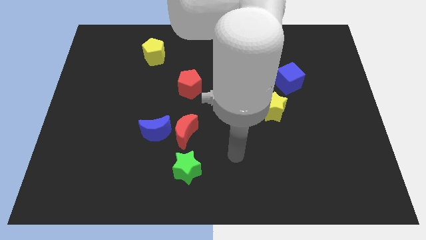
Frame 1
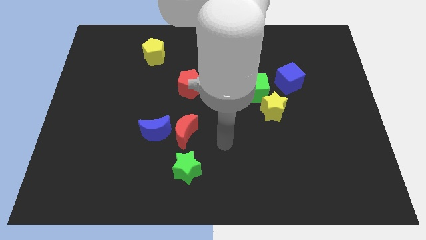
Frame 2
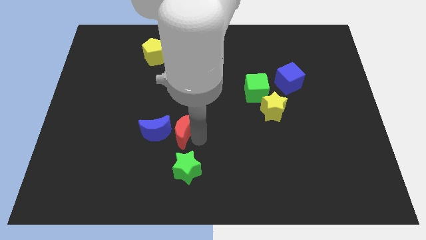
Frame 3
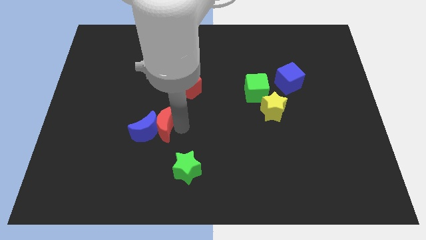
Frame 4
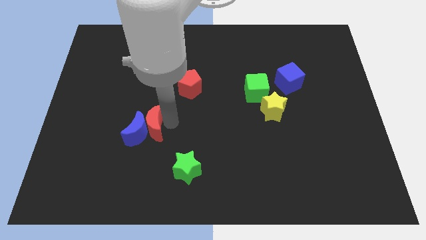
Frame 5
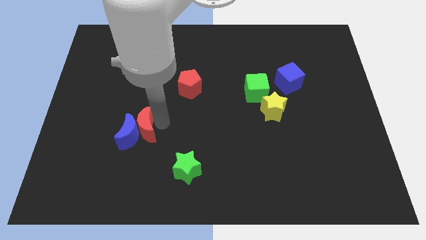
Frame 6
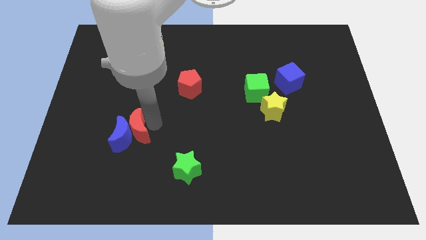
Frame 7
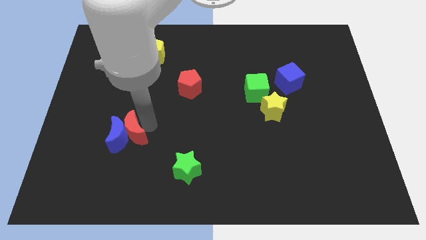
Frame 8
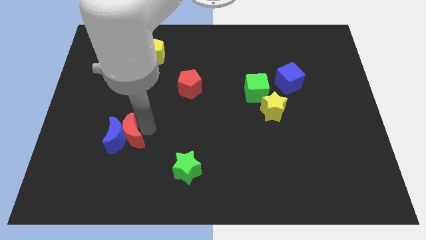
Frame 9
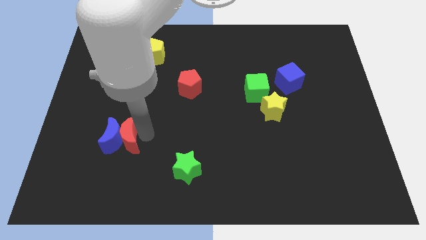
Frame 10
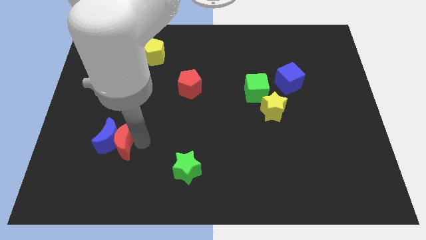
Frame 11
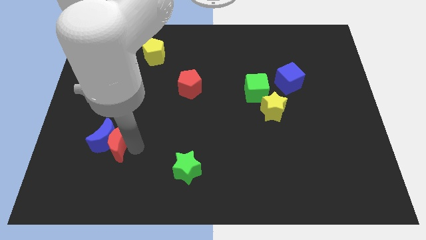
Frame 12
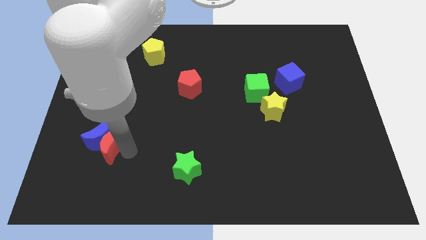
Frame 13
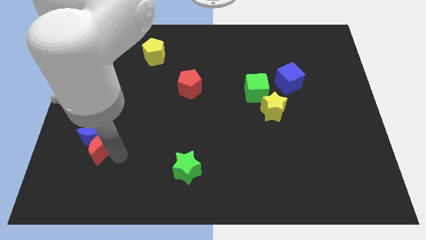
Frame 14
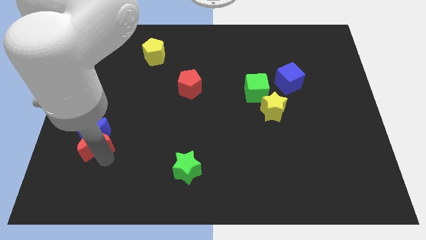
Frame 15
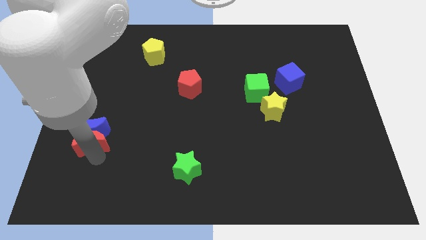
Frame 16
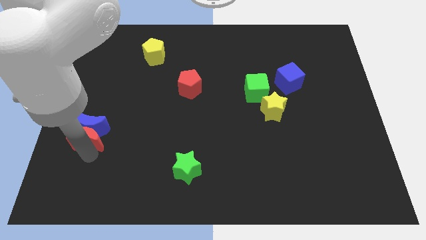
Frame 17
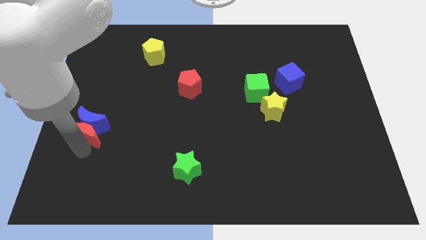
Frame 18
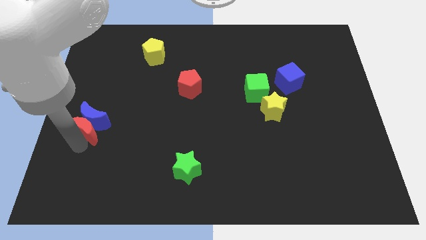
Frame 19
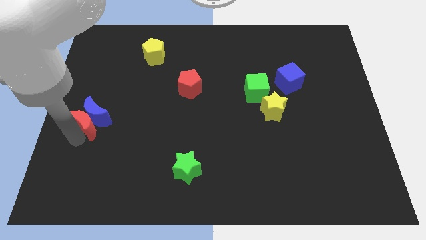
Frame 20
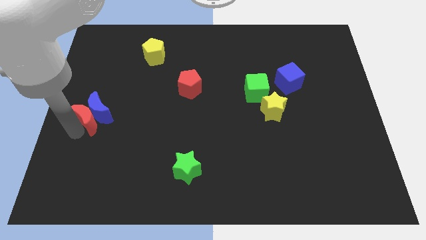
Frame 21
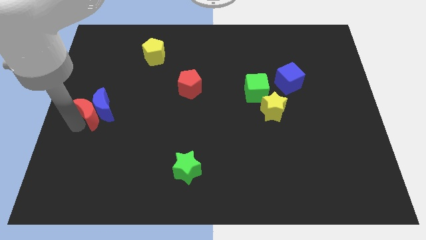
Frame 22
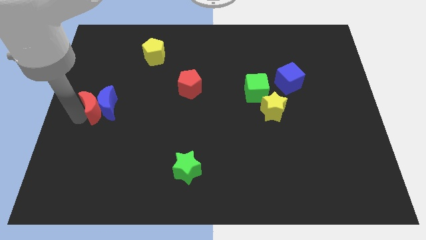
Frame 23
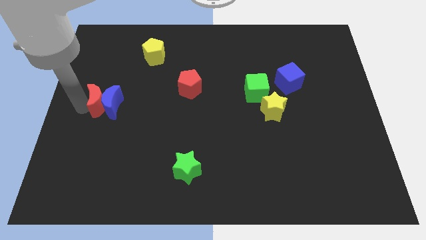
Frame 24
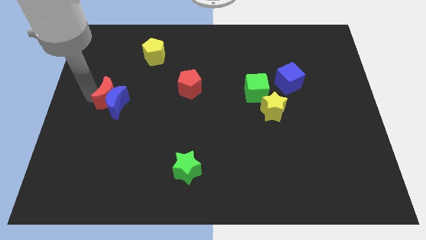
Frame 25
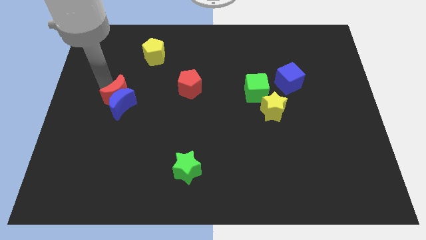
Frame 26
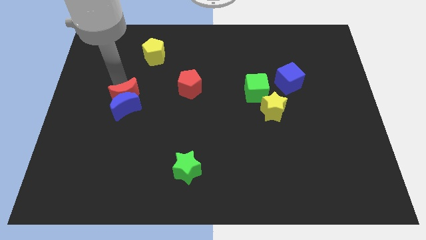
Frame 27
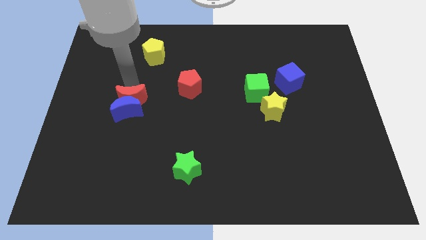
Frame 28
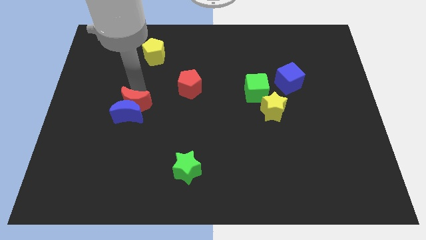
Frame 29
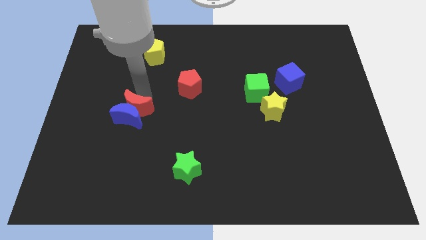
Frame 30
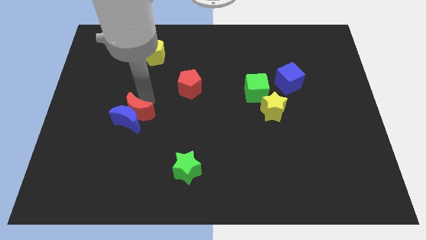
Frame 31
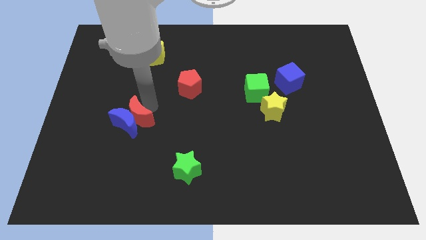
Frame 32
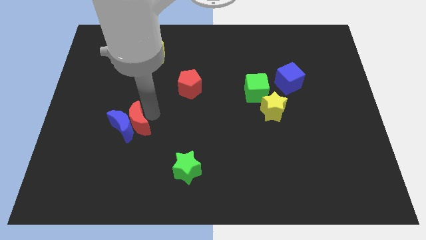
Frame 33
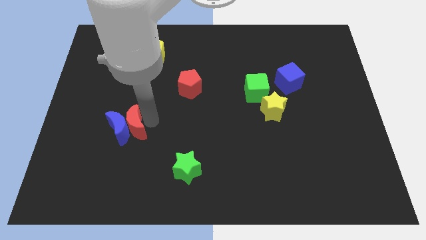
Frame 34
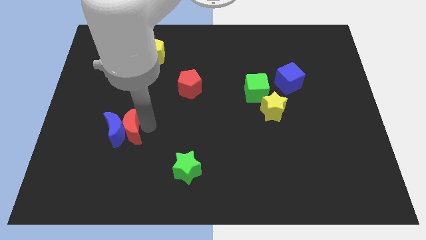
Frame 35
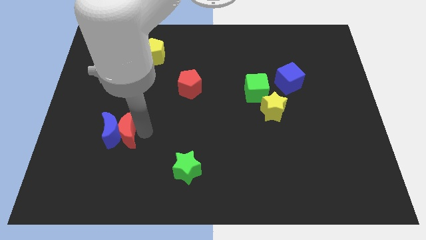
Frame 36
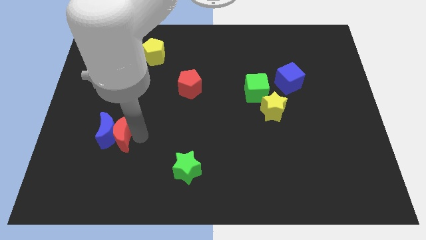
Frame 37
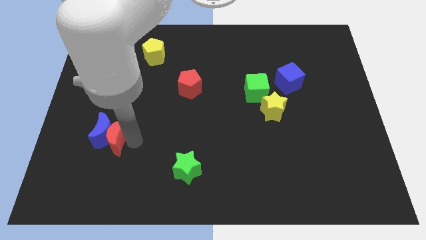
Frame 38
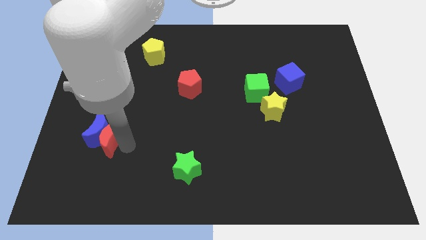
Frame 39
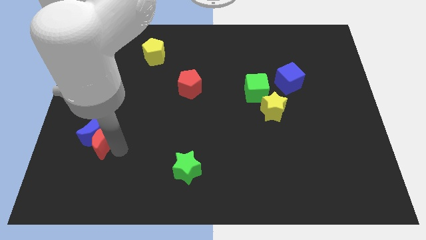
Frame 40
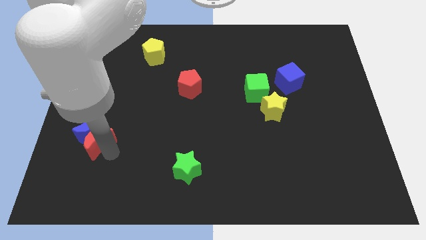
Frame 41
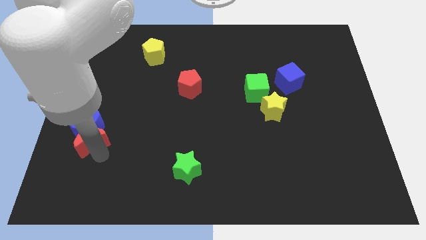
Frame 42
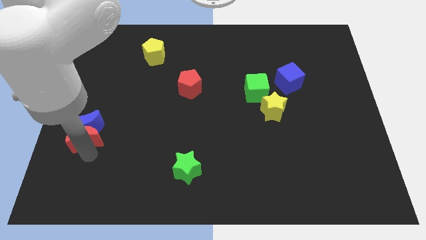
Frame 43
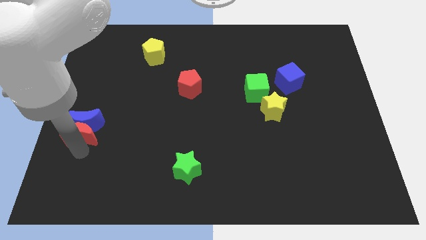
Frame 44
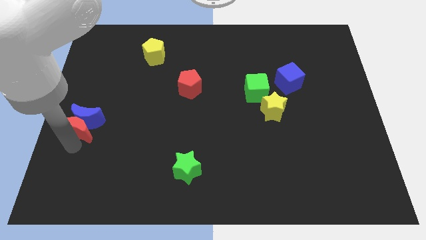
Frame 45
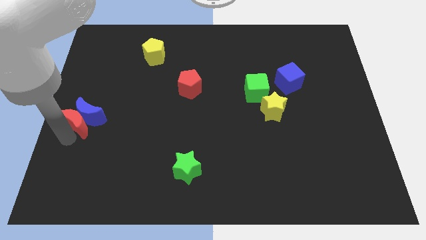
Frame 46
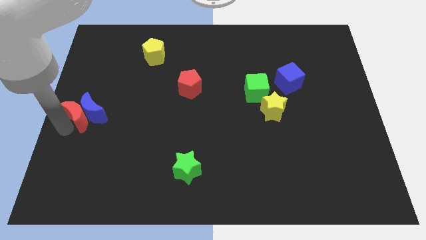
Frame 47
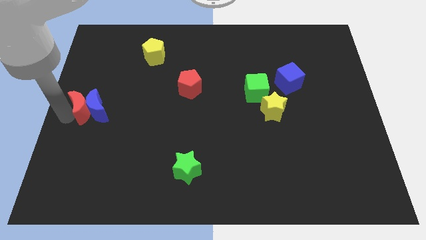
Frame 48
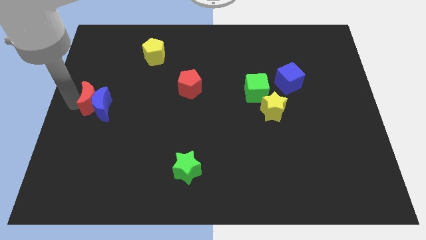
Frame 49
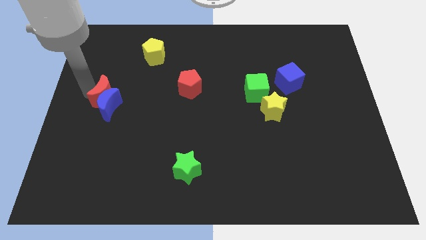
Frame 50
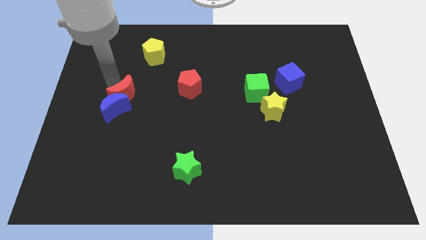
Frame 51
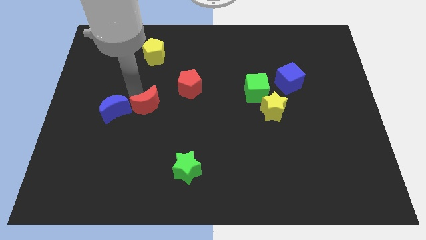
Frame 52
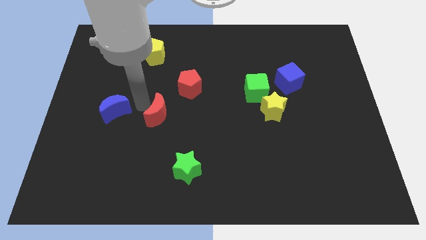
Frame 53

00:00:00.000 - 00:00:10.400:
pull the blue moon apart from the red moon

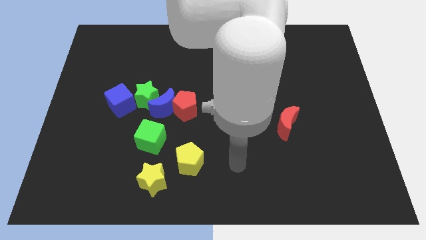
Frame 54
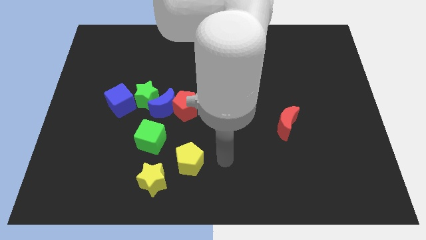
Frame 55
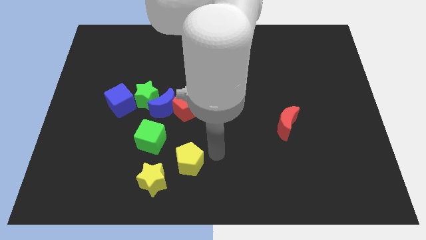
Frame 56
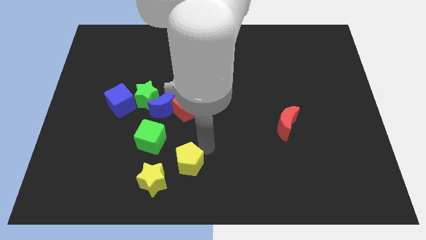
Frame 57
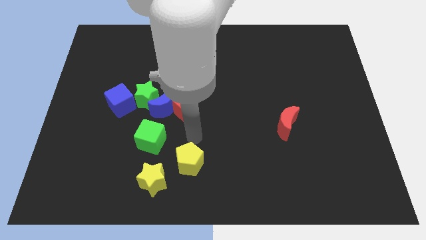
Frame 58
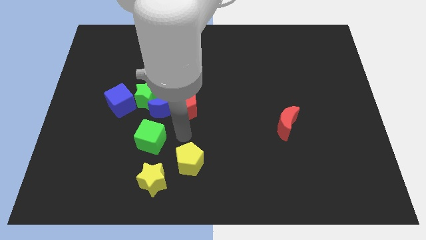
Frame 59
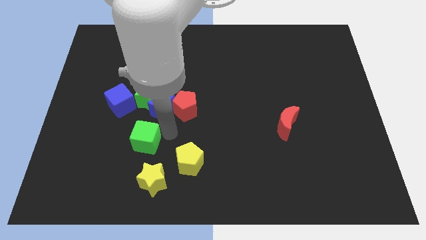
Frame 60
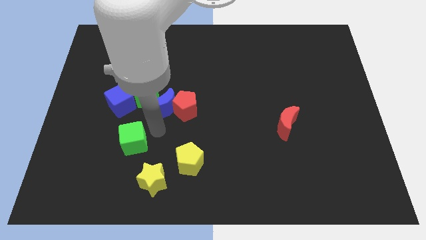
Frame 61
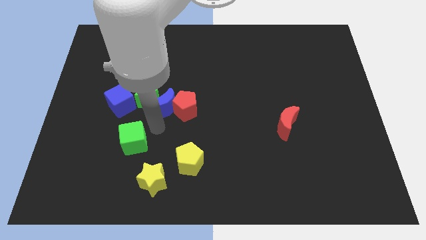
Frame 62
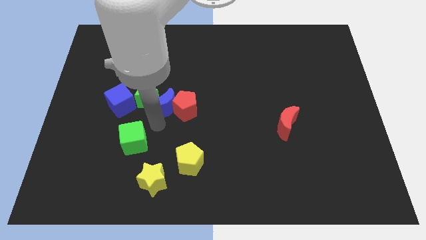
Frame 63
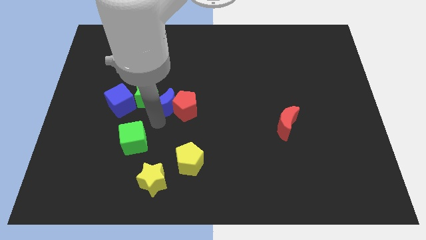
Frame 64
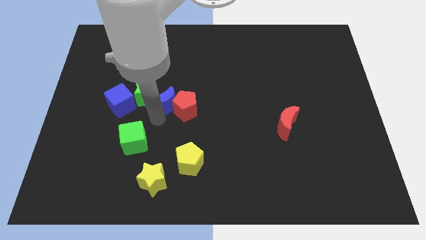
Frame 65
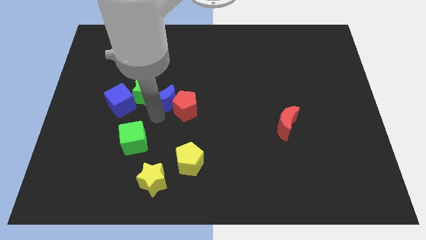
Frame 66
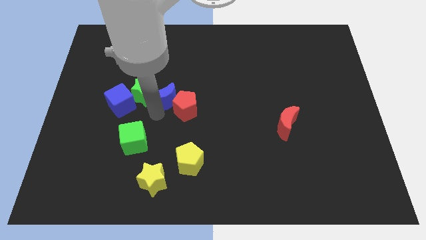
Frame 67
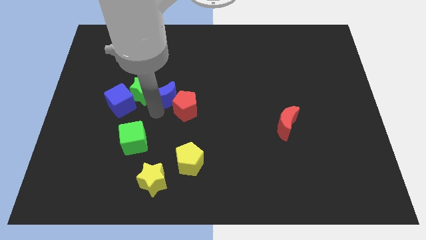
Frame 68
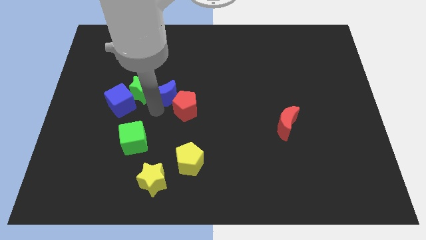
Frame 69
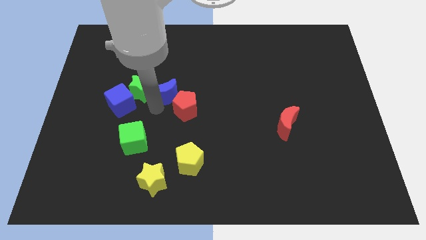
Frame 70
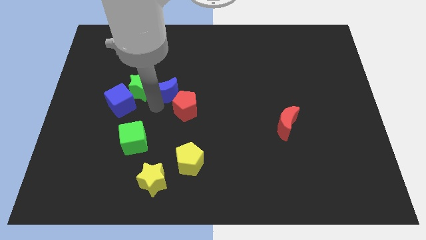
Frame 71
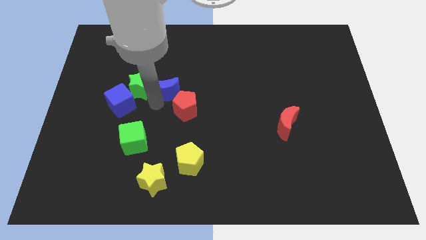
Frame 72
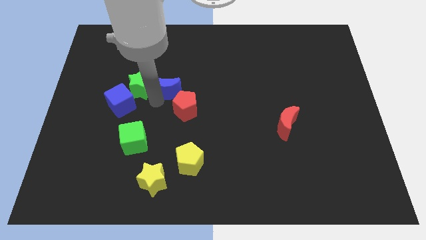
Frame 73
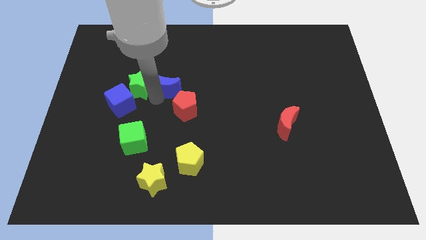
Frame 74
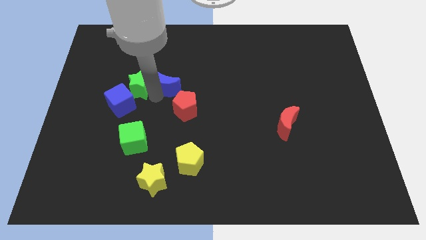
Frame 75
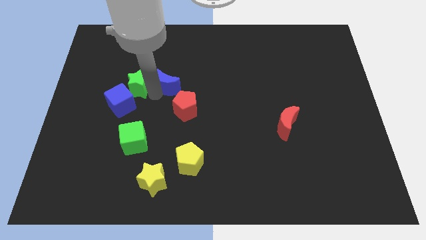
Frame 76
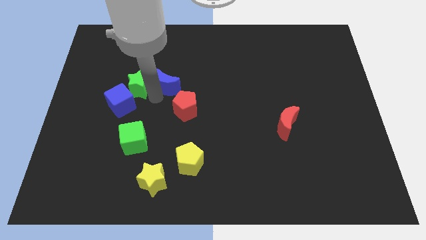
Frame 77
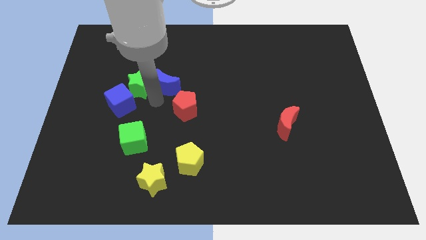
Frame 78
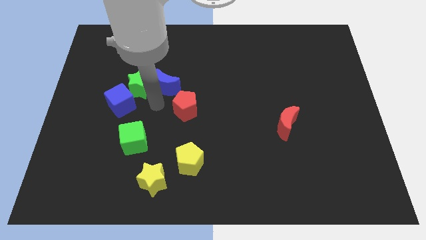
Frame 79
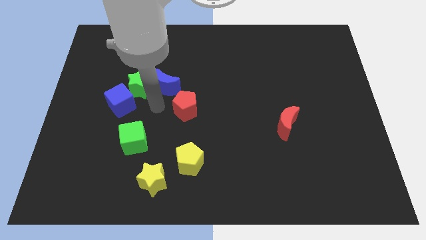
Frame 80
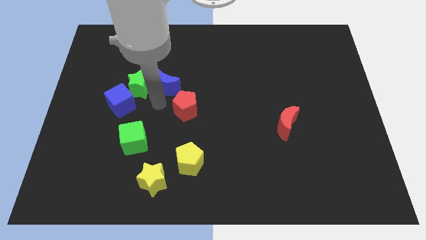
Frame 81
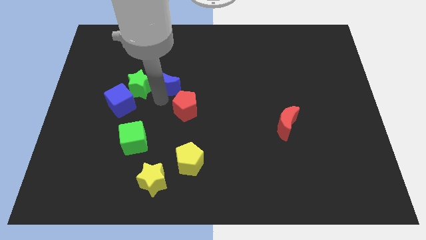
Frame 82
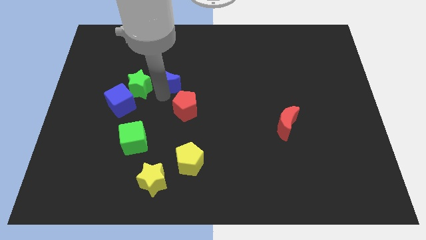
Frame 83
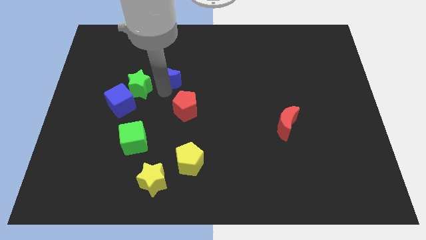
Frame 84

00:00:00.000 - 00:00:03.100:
separate the blue moon from the red pentagon, green star, and green cube

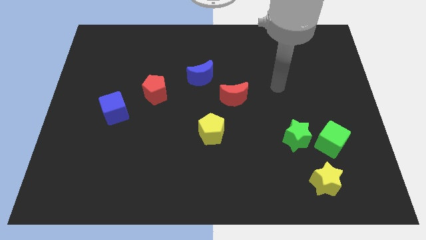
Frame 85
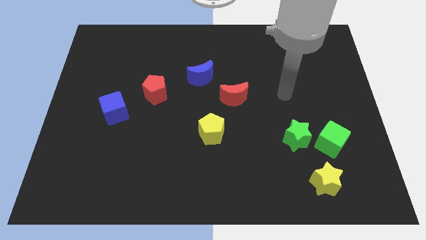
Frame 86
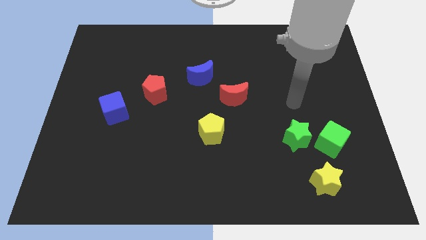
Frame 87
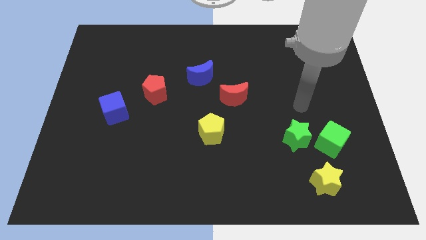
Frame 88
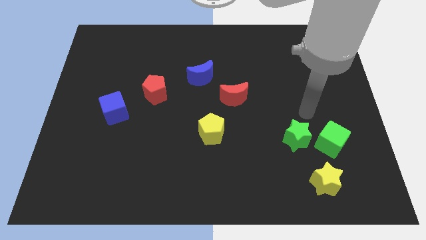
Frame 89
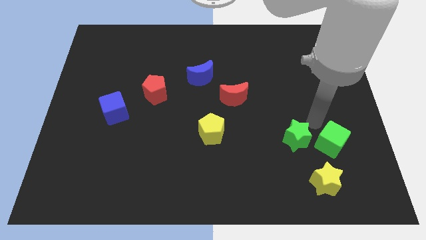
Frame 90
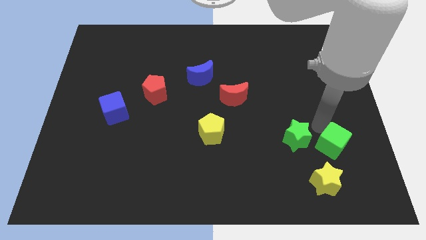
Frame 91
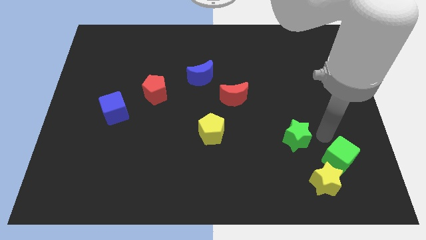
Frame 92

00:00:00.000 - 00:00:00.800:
move the green star away from the green cube
